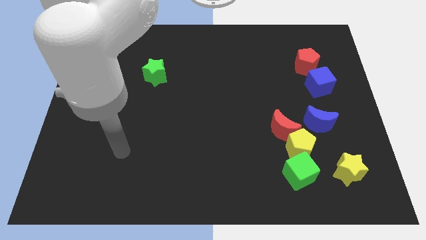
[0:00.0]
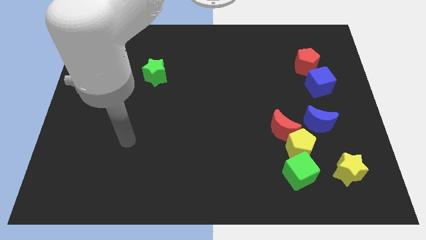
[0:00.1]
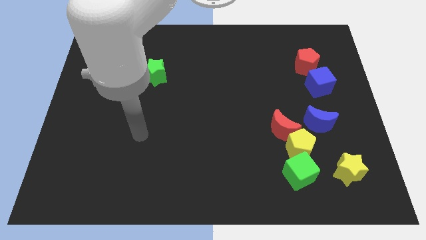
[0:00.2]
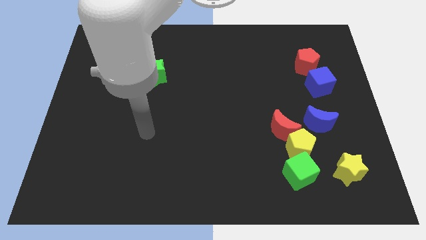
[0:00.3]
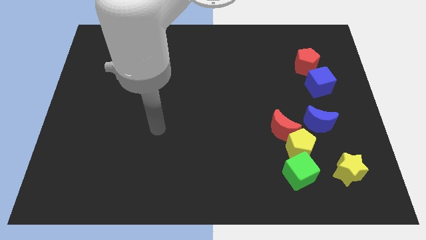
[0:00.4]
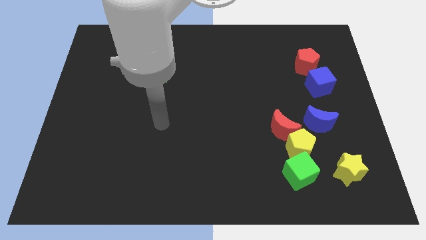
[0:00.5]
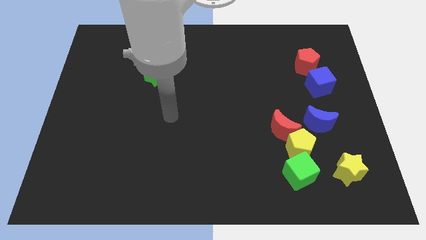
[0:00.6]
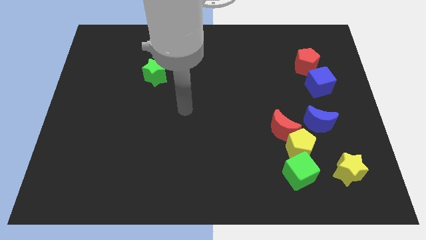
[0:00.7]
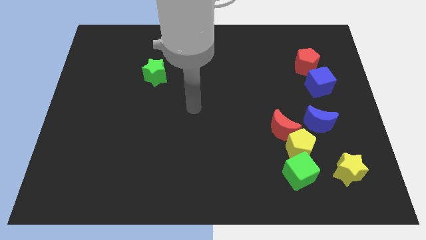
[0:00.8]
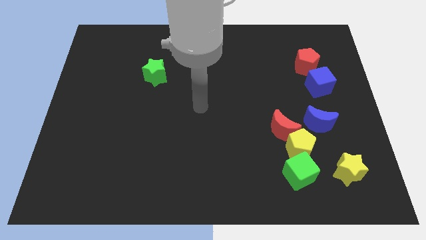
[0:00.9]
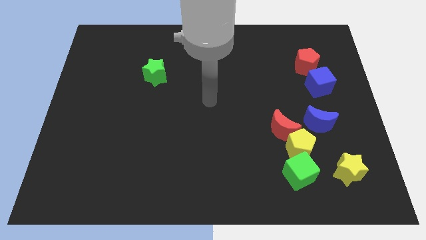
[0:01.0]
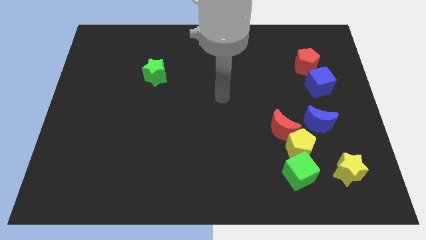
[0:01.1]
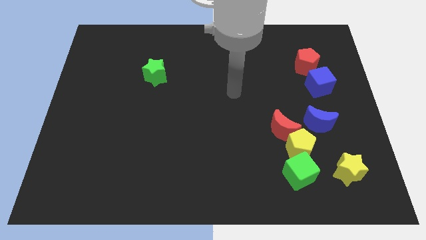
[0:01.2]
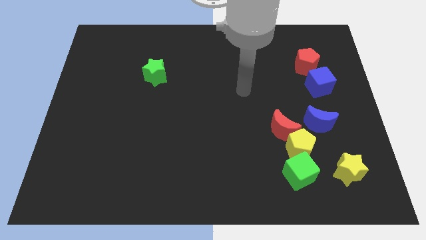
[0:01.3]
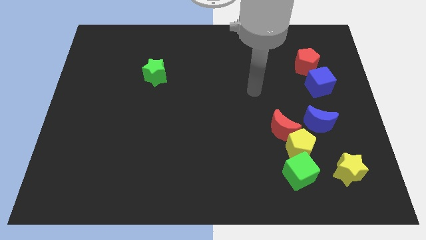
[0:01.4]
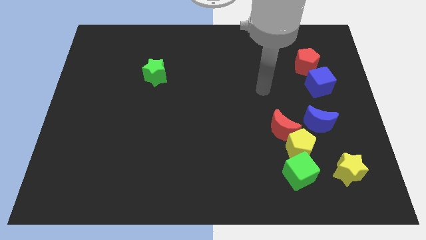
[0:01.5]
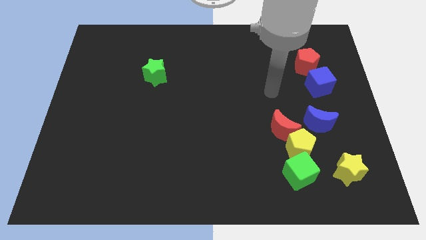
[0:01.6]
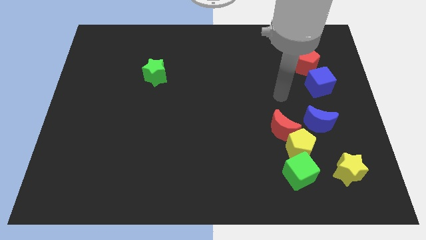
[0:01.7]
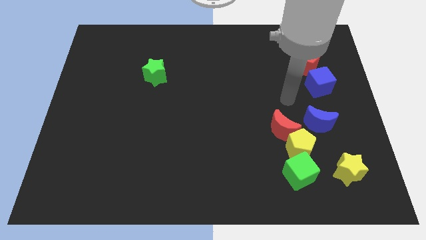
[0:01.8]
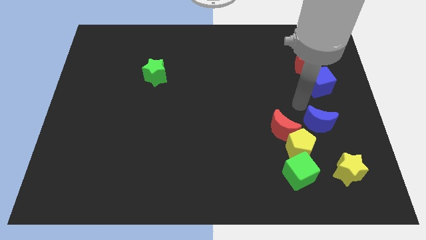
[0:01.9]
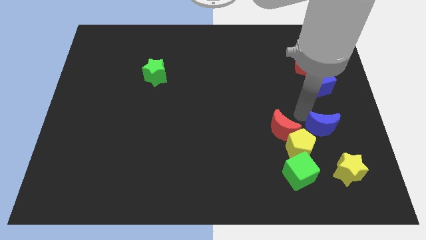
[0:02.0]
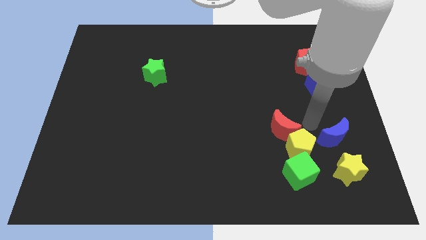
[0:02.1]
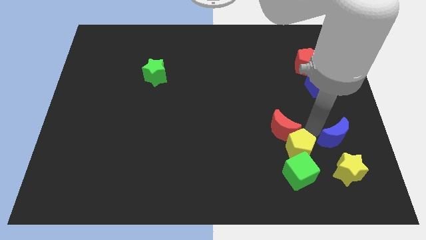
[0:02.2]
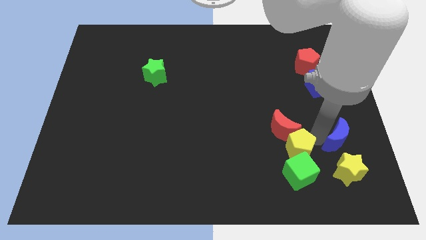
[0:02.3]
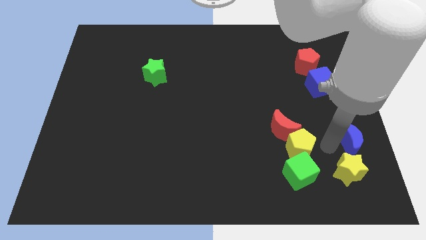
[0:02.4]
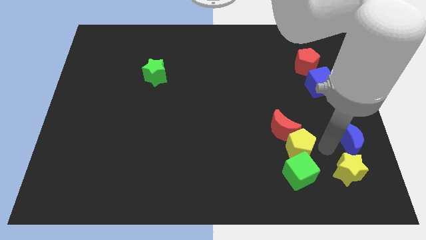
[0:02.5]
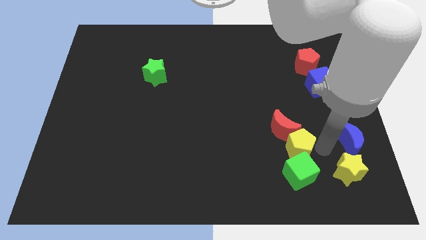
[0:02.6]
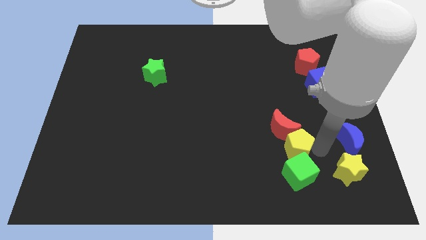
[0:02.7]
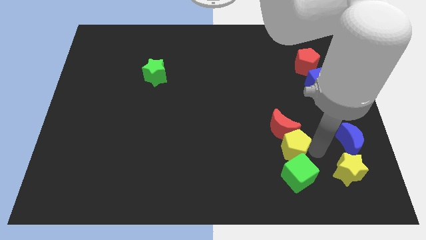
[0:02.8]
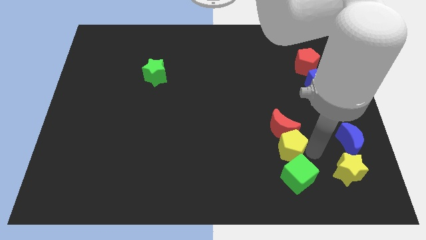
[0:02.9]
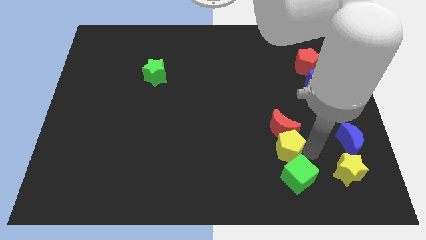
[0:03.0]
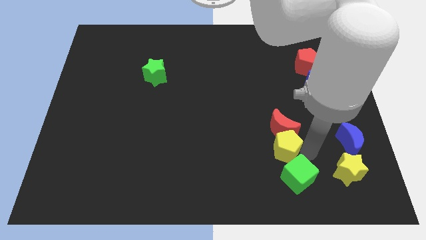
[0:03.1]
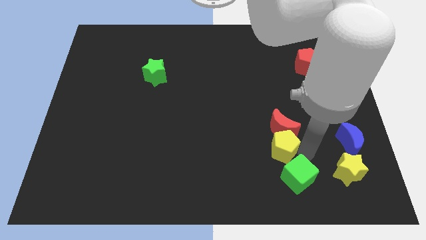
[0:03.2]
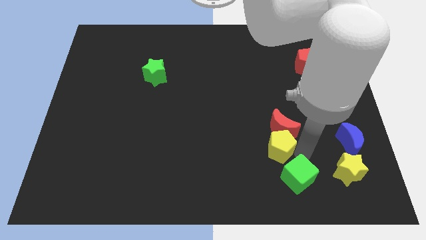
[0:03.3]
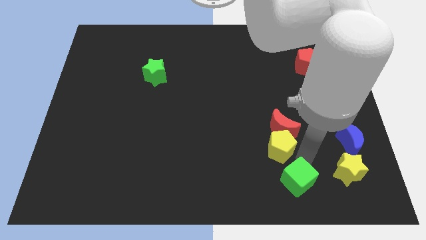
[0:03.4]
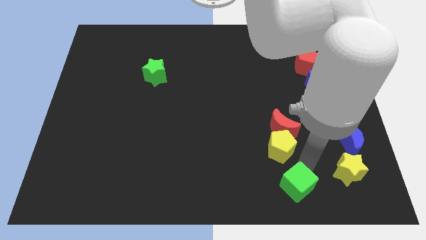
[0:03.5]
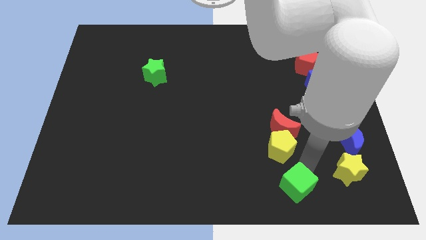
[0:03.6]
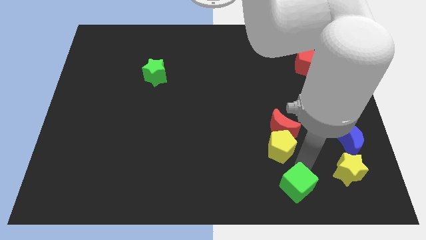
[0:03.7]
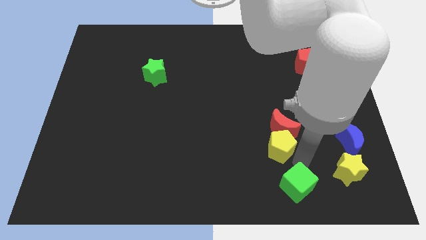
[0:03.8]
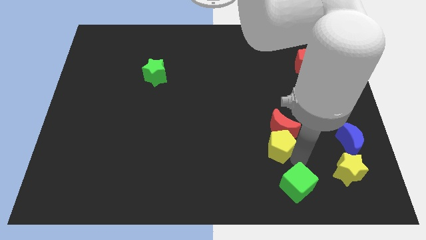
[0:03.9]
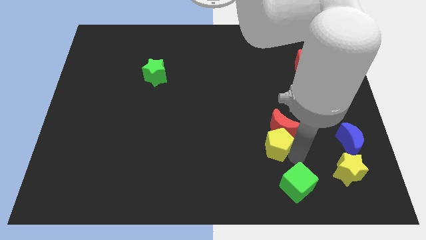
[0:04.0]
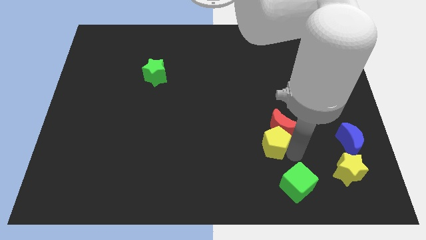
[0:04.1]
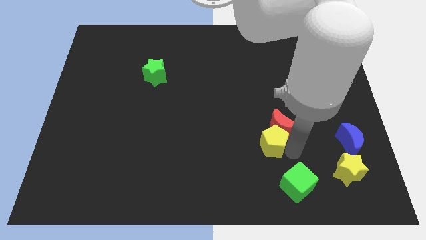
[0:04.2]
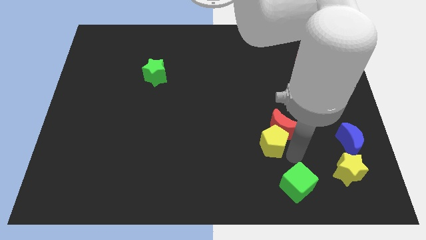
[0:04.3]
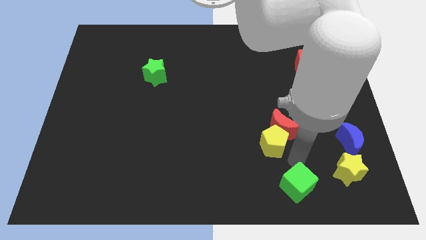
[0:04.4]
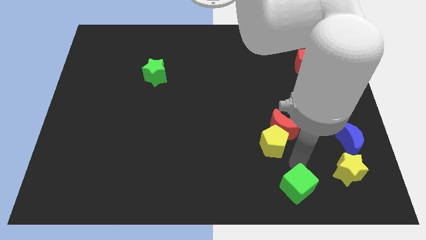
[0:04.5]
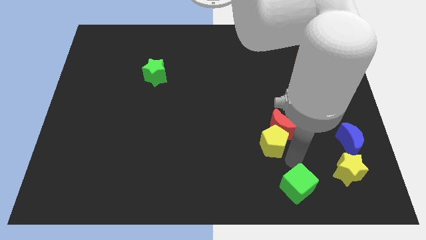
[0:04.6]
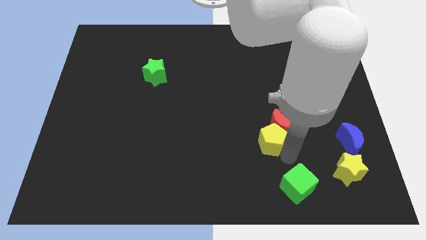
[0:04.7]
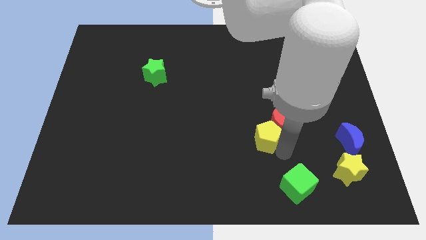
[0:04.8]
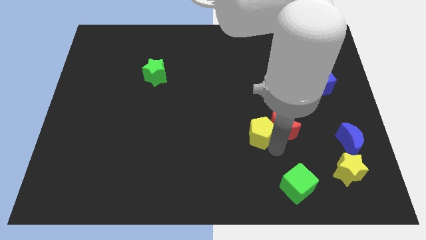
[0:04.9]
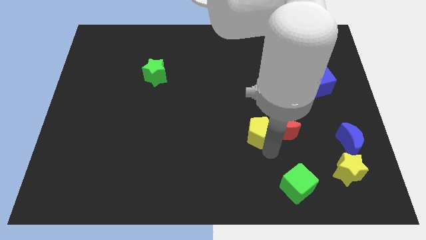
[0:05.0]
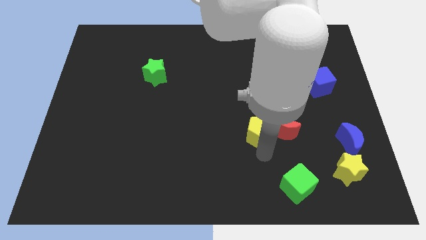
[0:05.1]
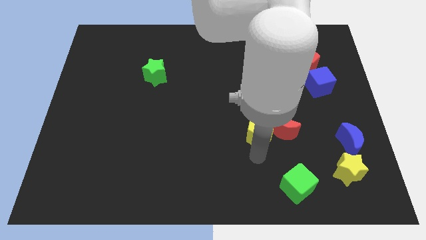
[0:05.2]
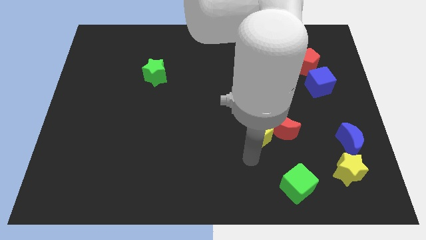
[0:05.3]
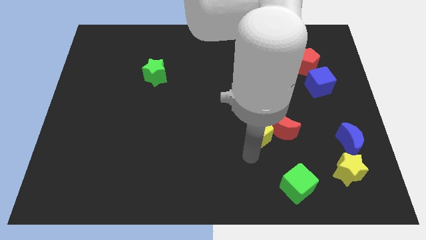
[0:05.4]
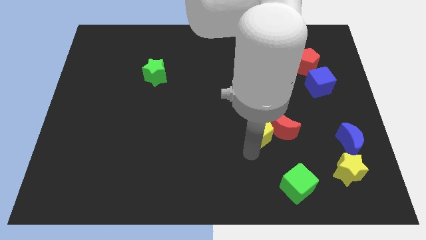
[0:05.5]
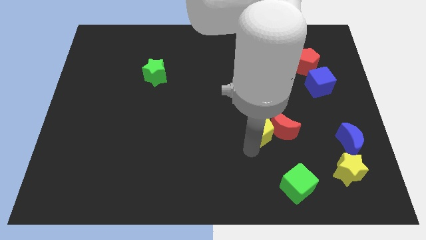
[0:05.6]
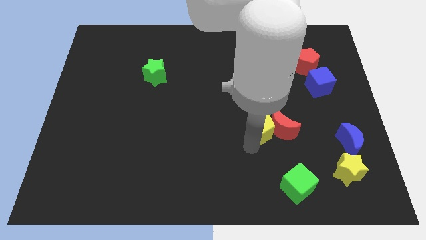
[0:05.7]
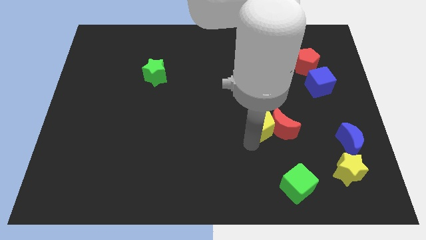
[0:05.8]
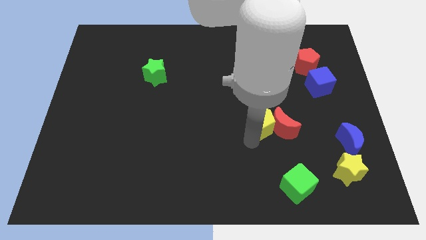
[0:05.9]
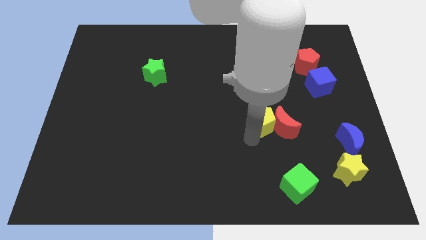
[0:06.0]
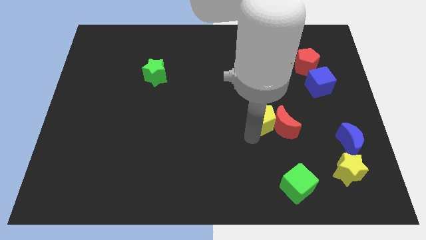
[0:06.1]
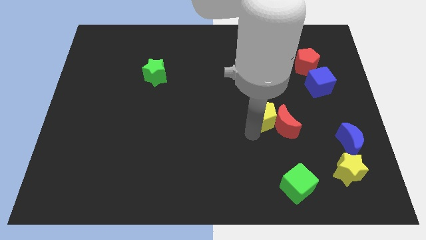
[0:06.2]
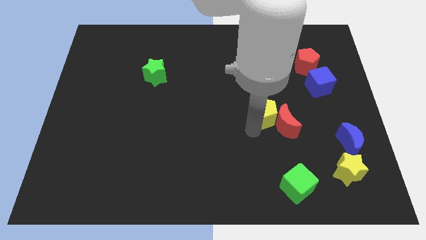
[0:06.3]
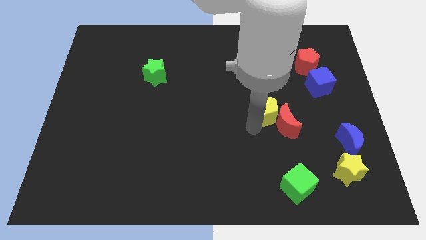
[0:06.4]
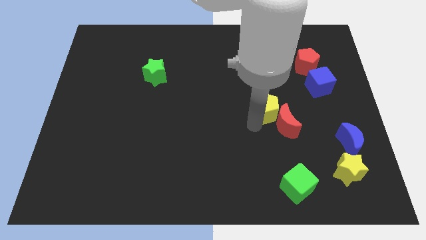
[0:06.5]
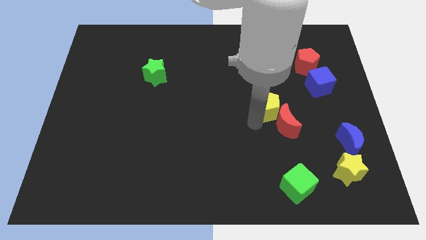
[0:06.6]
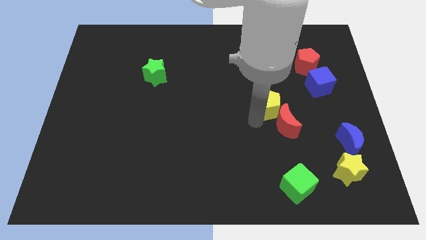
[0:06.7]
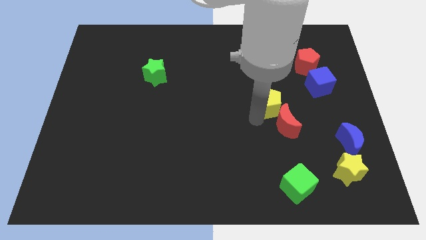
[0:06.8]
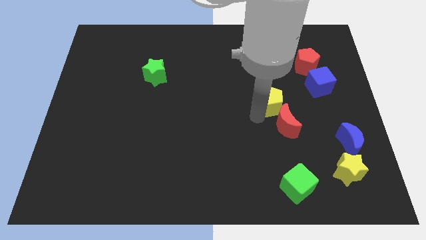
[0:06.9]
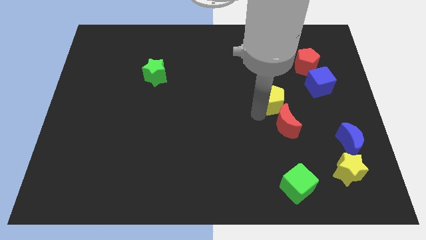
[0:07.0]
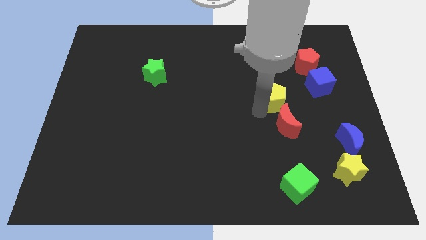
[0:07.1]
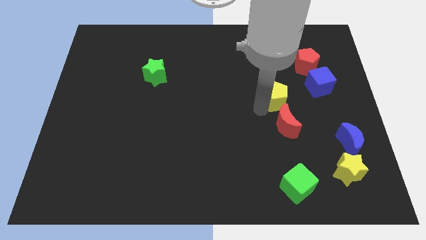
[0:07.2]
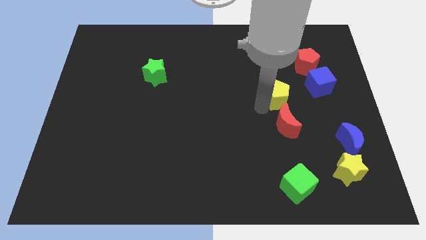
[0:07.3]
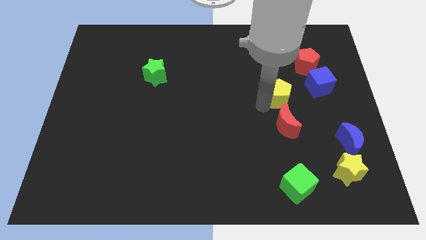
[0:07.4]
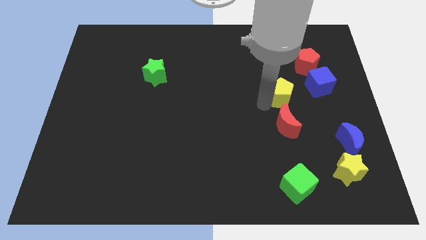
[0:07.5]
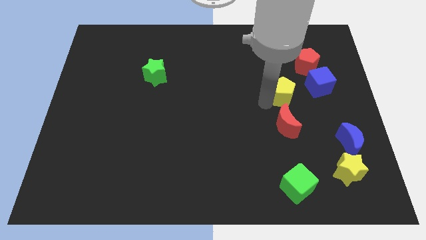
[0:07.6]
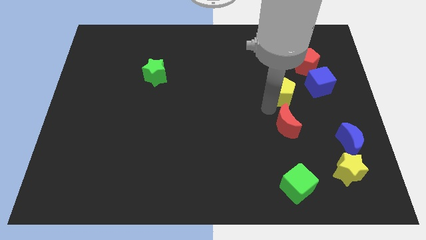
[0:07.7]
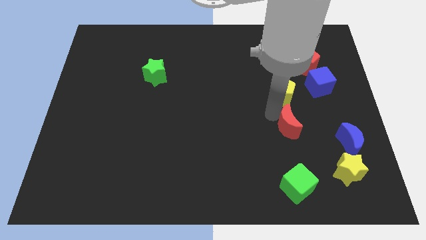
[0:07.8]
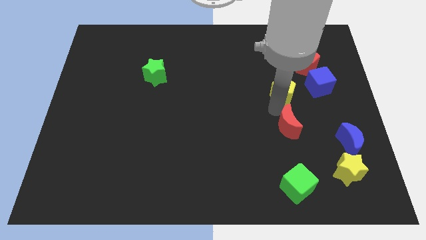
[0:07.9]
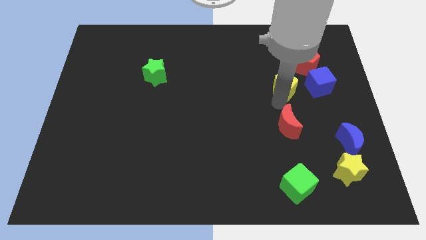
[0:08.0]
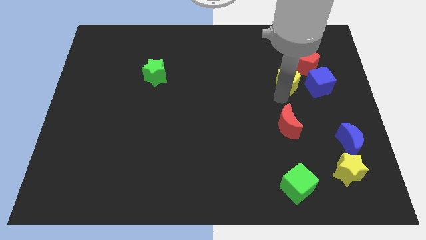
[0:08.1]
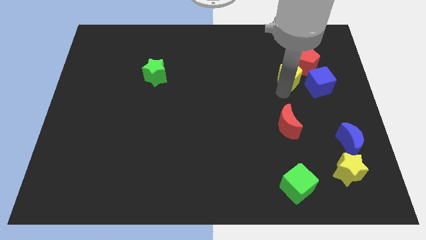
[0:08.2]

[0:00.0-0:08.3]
move the yellow pentagon to the top left side of the blue cube
